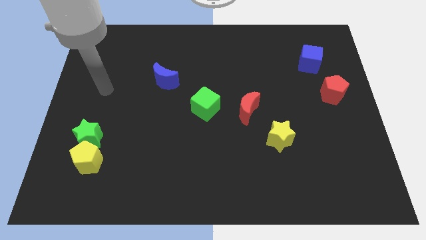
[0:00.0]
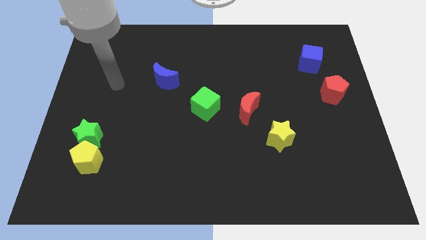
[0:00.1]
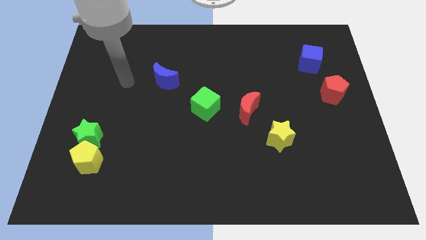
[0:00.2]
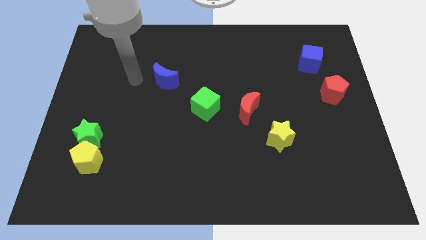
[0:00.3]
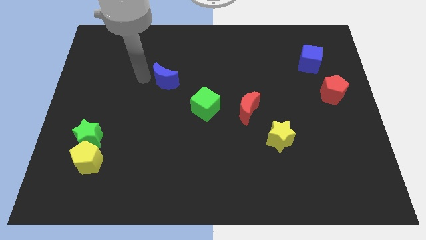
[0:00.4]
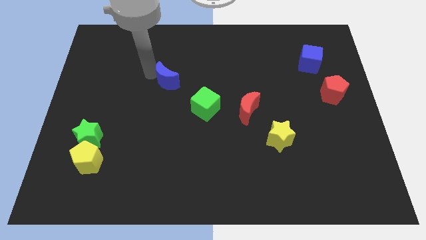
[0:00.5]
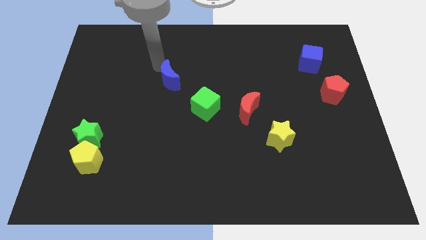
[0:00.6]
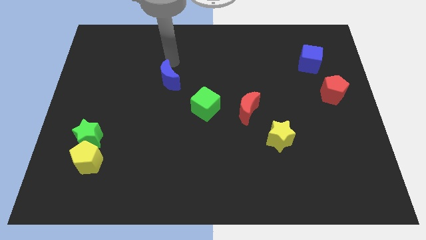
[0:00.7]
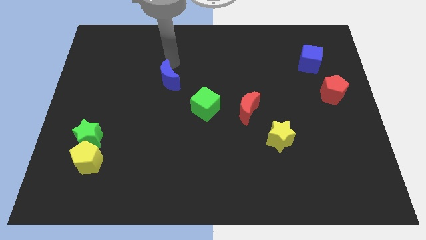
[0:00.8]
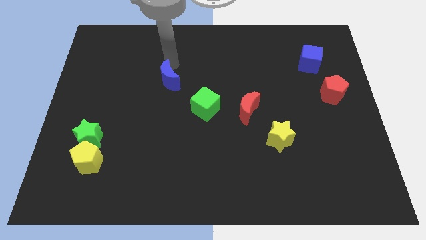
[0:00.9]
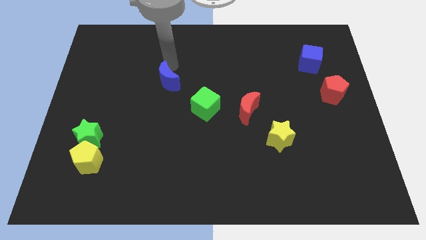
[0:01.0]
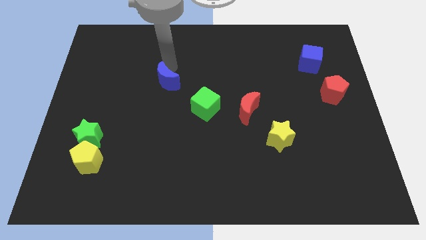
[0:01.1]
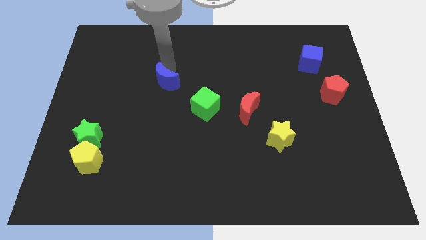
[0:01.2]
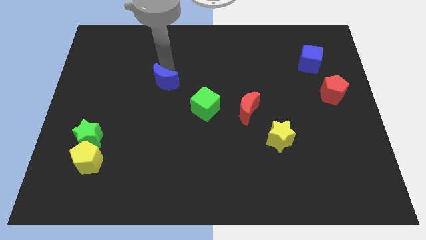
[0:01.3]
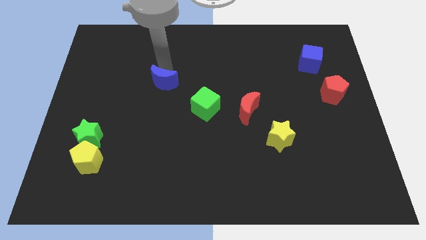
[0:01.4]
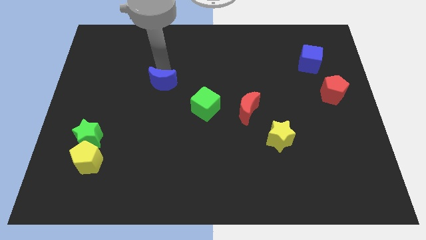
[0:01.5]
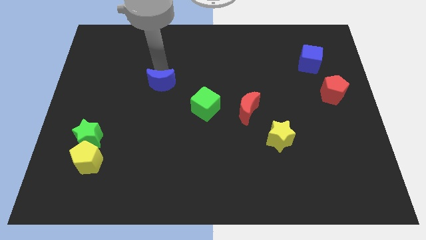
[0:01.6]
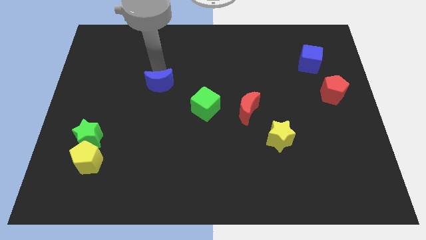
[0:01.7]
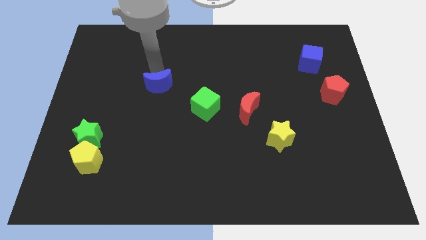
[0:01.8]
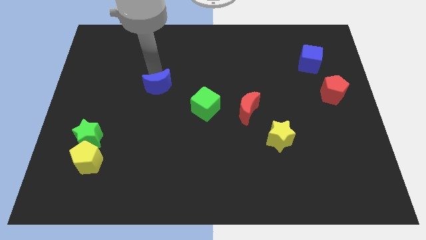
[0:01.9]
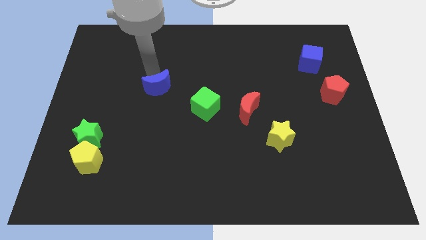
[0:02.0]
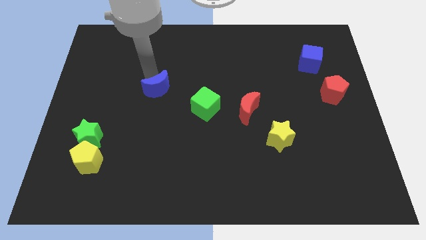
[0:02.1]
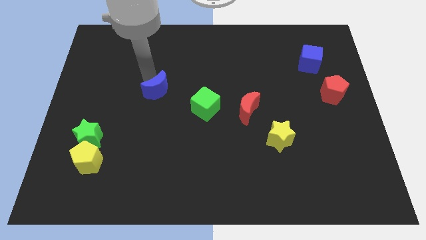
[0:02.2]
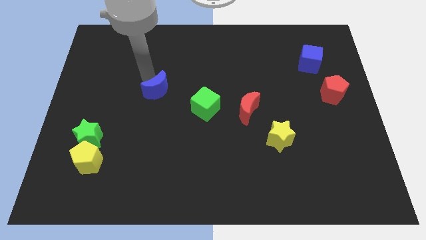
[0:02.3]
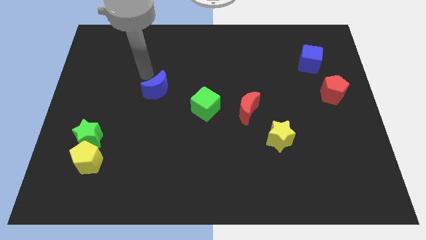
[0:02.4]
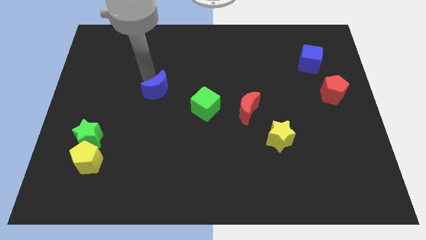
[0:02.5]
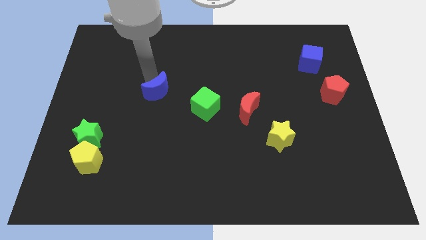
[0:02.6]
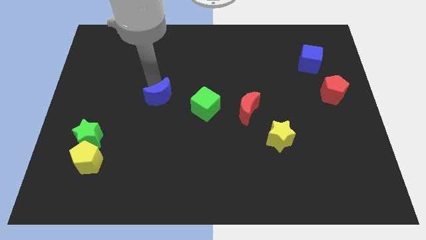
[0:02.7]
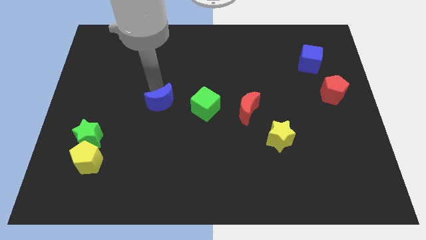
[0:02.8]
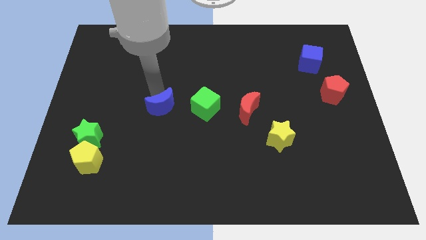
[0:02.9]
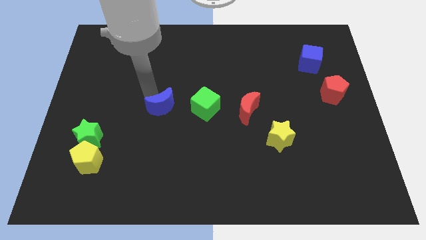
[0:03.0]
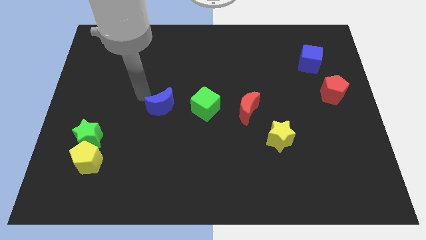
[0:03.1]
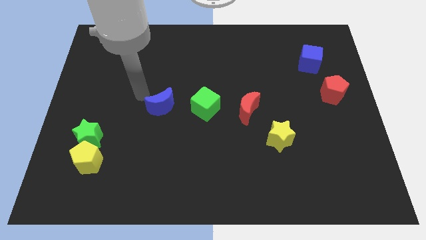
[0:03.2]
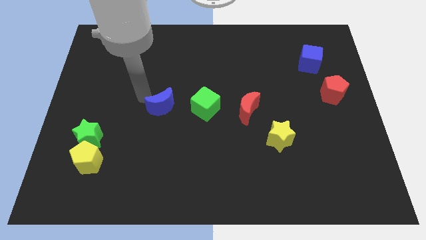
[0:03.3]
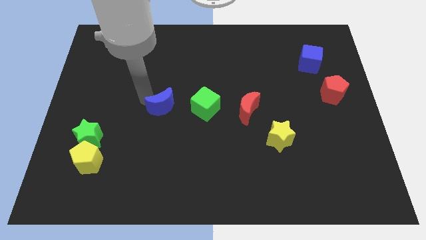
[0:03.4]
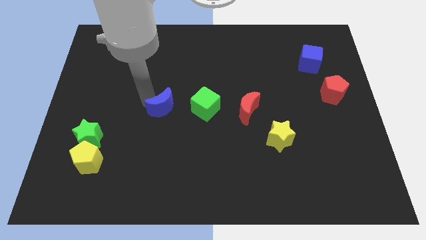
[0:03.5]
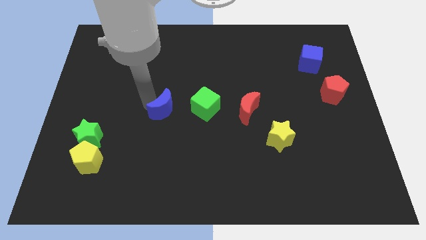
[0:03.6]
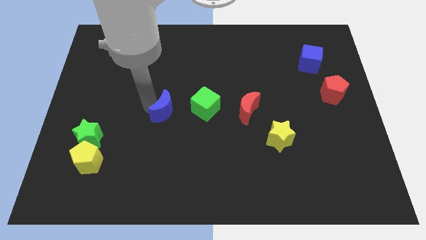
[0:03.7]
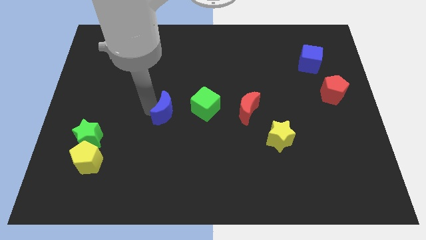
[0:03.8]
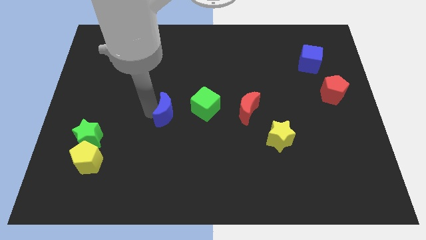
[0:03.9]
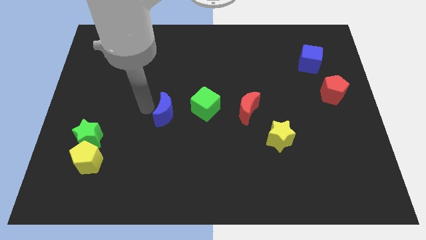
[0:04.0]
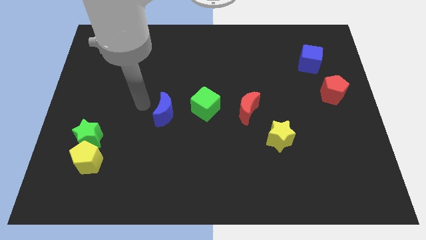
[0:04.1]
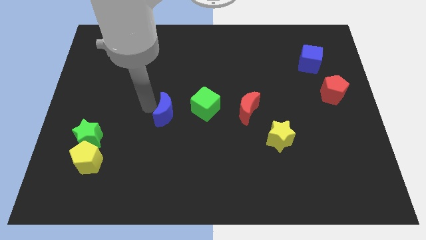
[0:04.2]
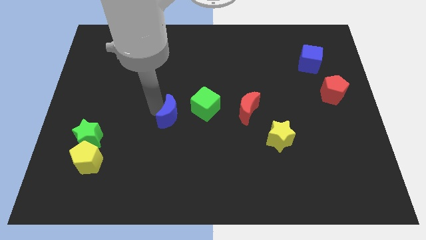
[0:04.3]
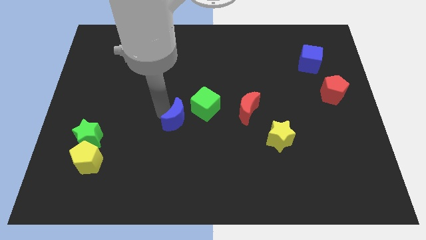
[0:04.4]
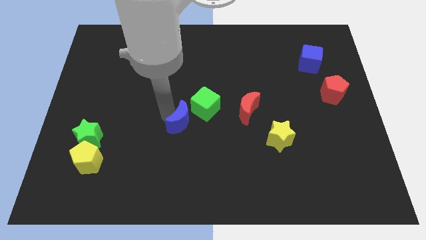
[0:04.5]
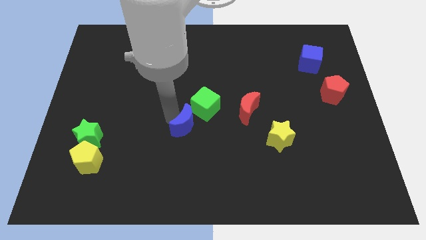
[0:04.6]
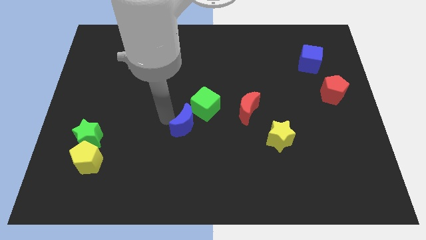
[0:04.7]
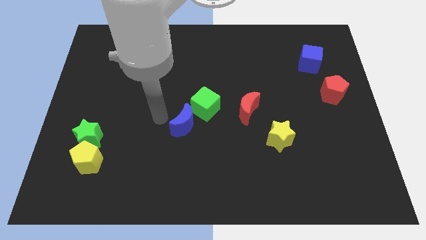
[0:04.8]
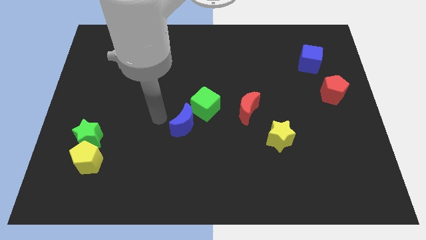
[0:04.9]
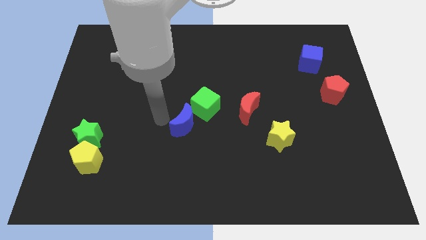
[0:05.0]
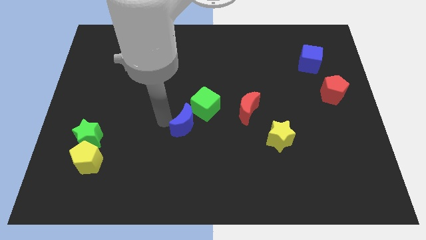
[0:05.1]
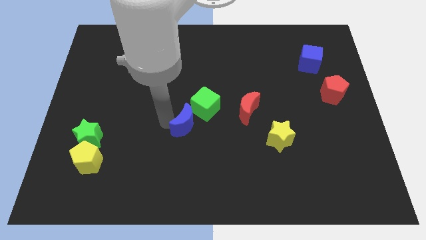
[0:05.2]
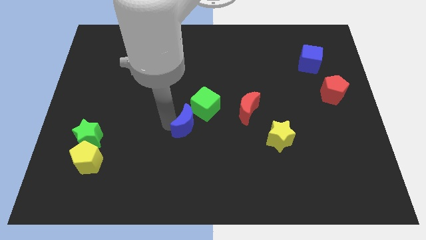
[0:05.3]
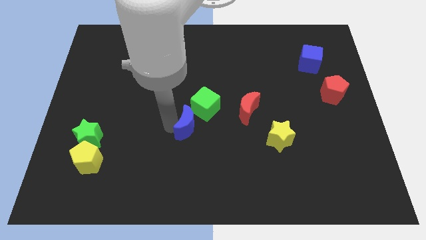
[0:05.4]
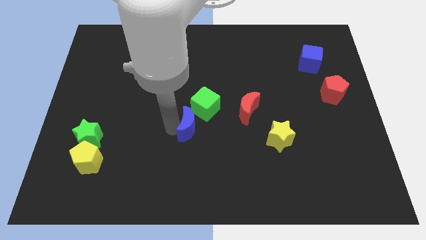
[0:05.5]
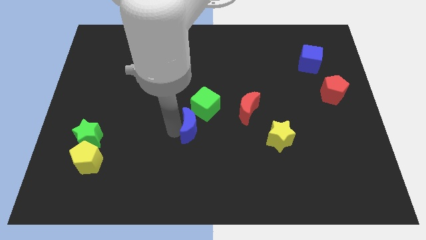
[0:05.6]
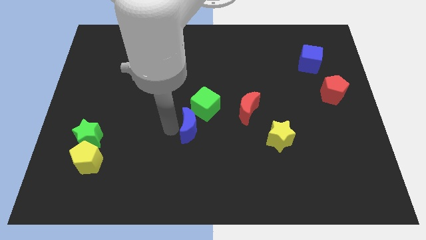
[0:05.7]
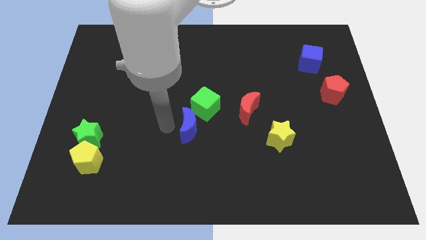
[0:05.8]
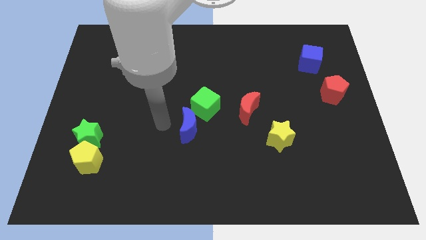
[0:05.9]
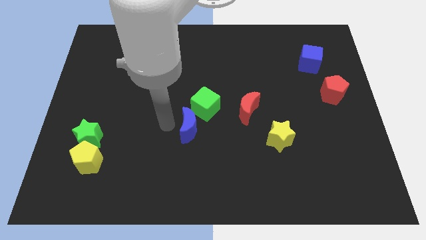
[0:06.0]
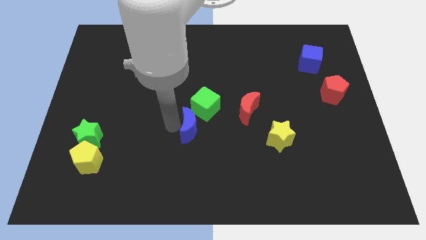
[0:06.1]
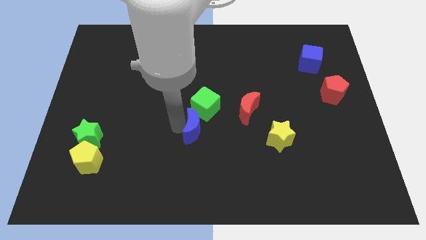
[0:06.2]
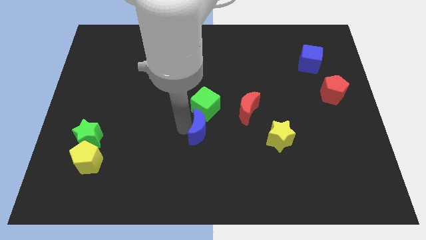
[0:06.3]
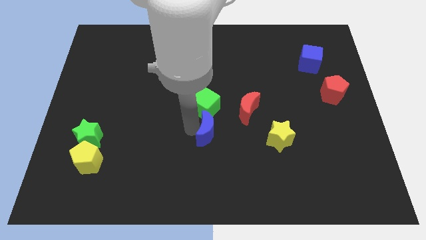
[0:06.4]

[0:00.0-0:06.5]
put the blue moon left of the yellow star
